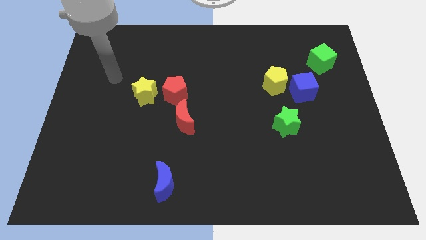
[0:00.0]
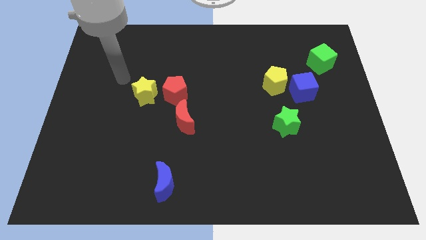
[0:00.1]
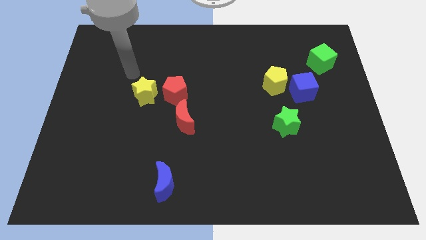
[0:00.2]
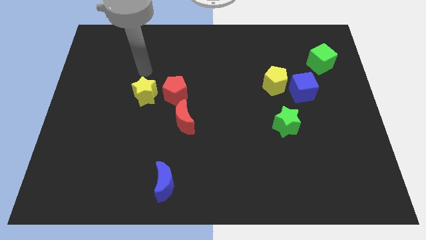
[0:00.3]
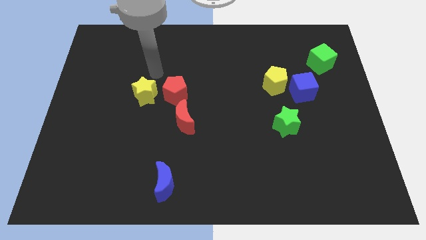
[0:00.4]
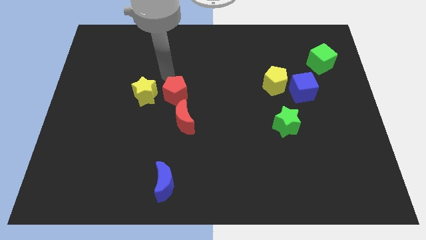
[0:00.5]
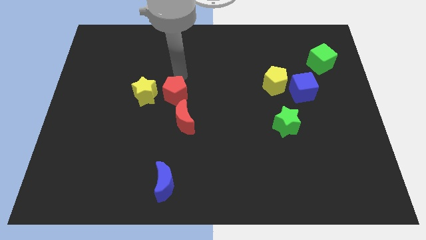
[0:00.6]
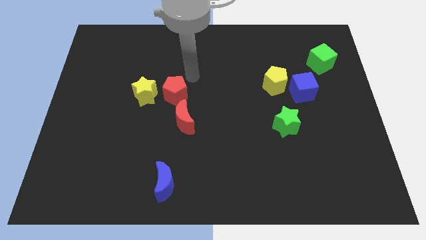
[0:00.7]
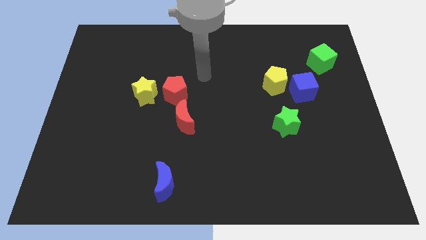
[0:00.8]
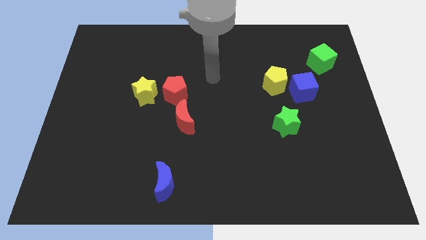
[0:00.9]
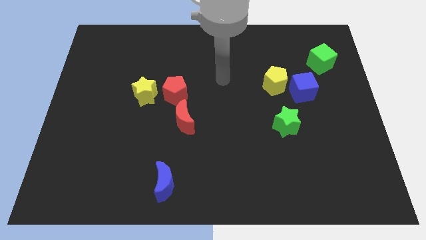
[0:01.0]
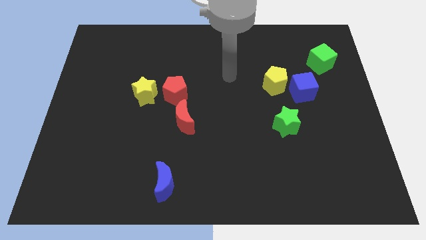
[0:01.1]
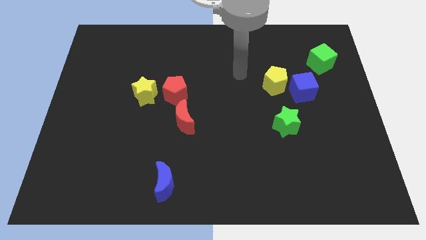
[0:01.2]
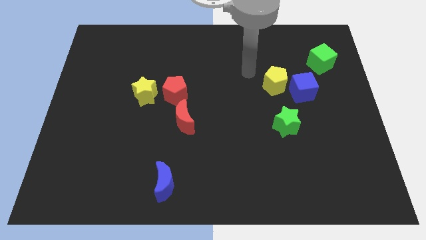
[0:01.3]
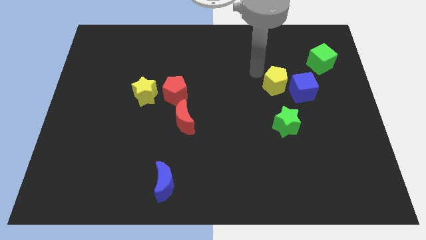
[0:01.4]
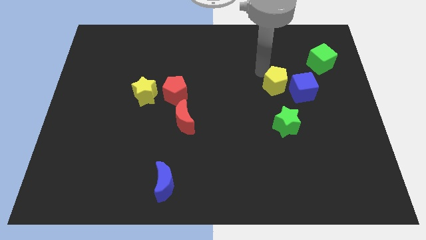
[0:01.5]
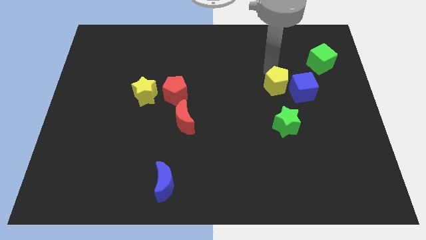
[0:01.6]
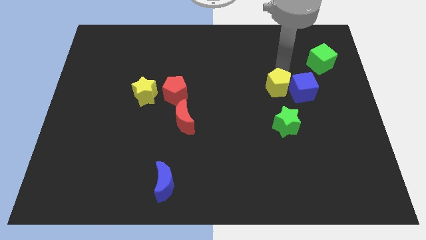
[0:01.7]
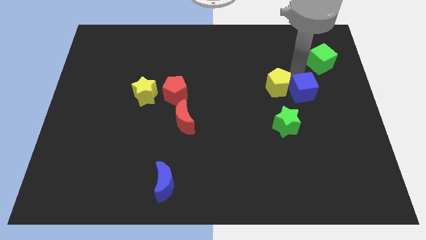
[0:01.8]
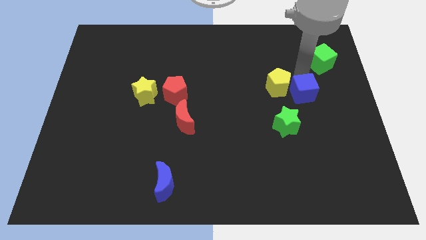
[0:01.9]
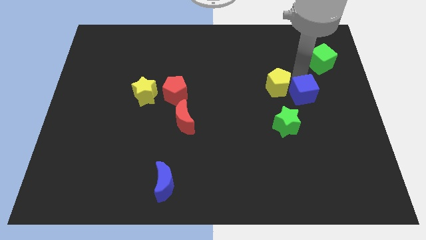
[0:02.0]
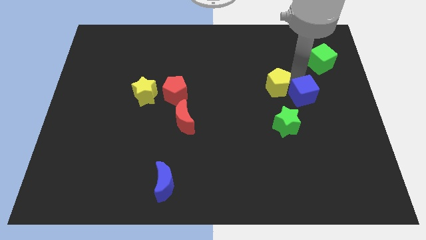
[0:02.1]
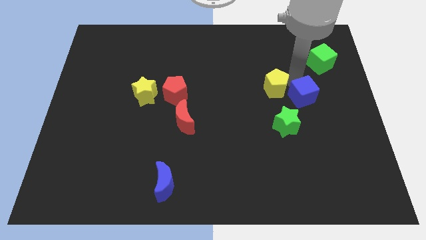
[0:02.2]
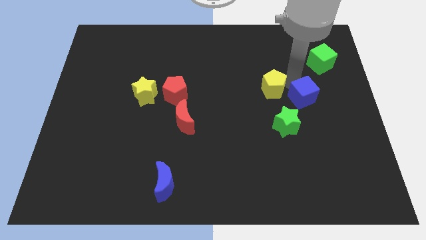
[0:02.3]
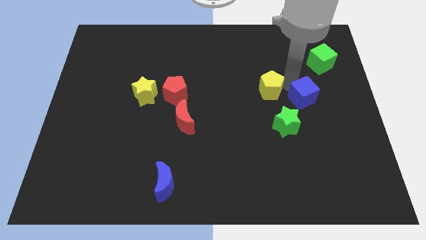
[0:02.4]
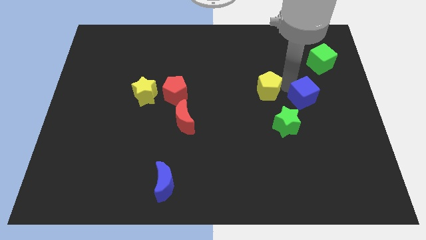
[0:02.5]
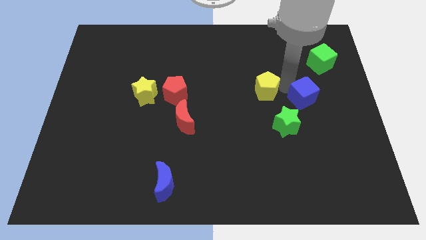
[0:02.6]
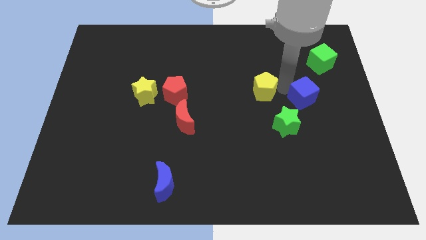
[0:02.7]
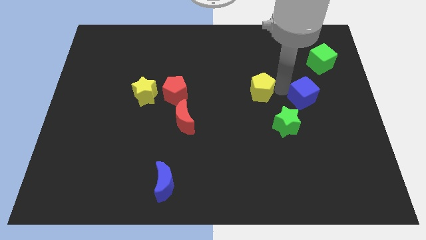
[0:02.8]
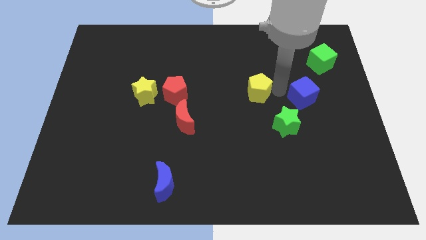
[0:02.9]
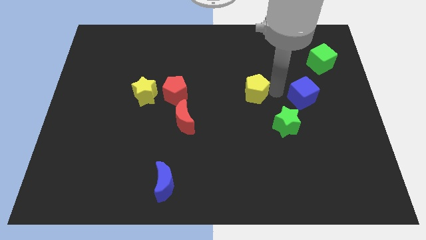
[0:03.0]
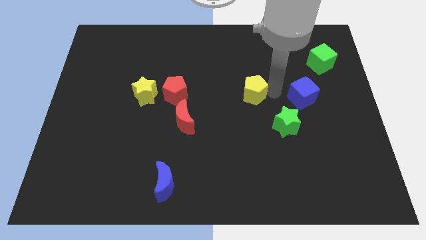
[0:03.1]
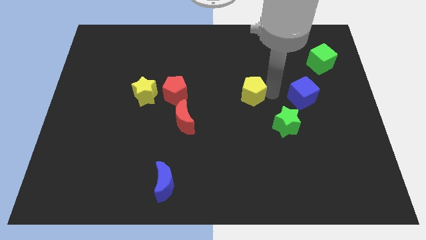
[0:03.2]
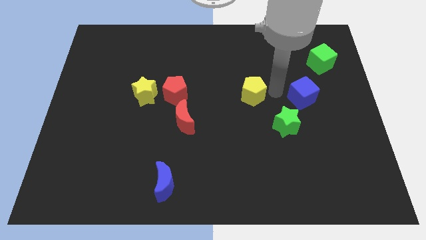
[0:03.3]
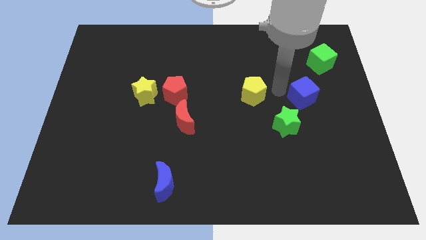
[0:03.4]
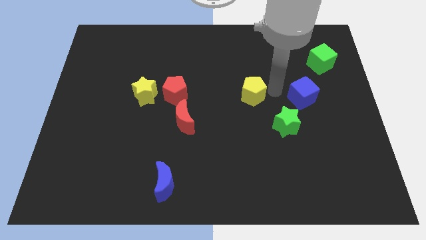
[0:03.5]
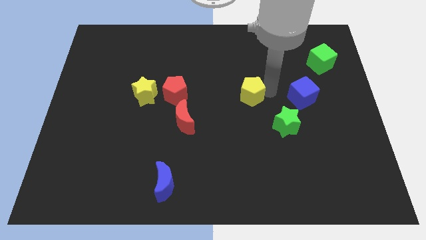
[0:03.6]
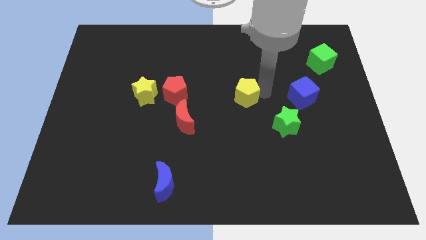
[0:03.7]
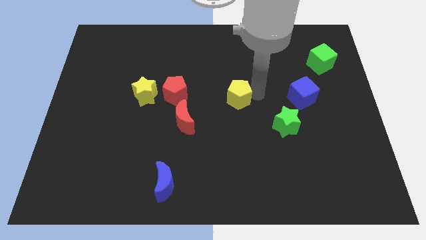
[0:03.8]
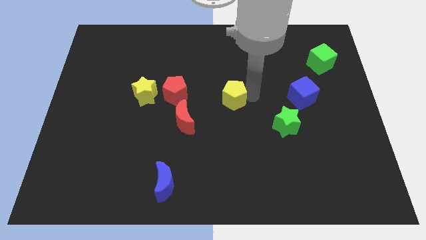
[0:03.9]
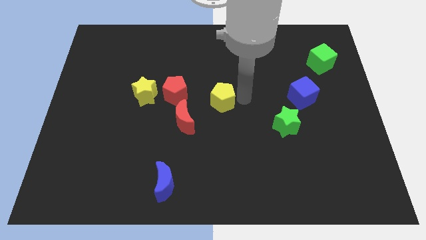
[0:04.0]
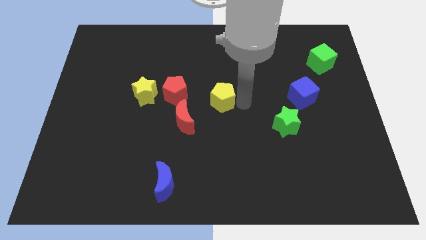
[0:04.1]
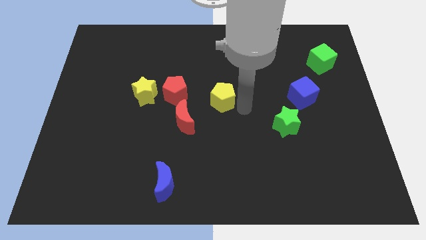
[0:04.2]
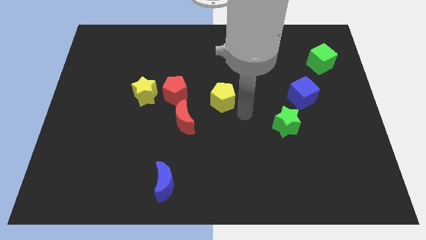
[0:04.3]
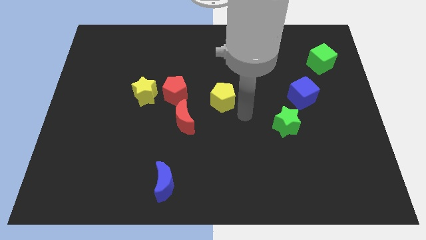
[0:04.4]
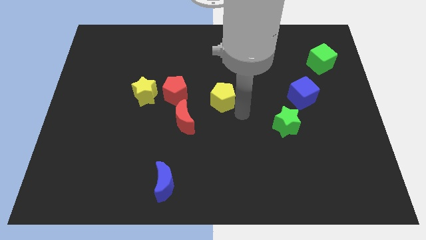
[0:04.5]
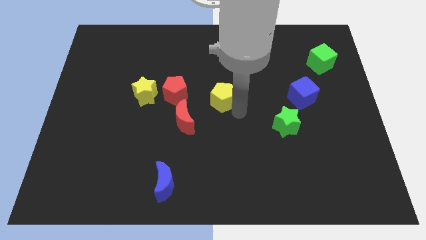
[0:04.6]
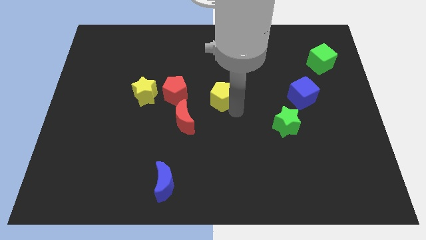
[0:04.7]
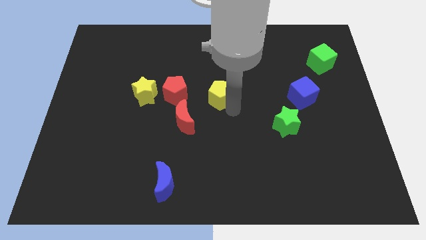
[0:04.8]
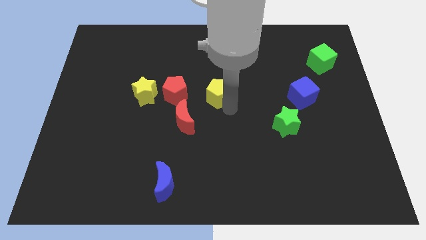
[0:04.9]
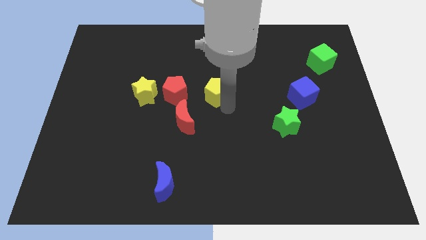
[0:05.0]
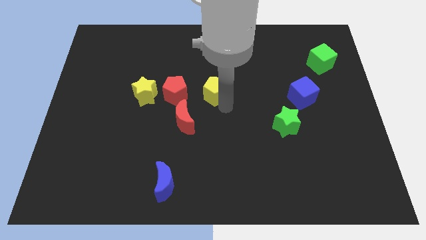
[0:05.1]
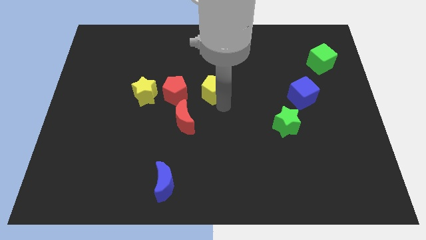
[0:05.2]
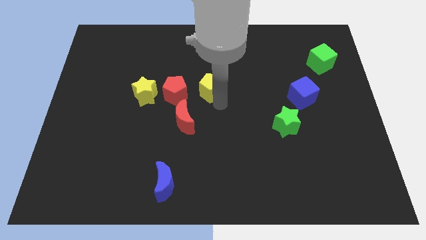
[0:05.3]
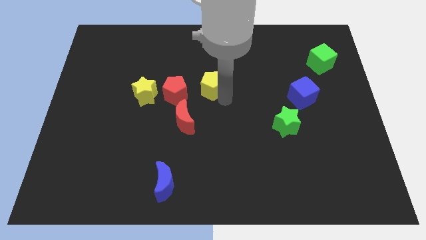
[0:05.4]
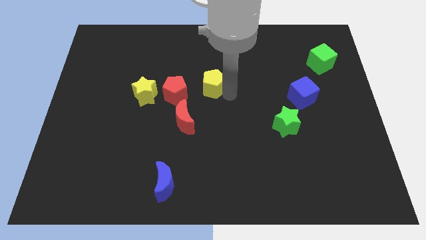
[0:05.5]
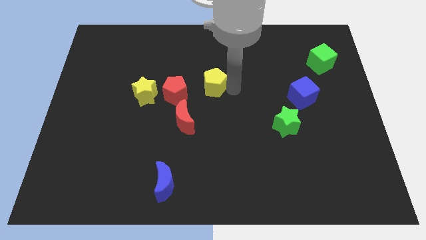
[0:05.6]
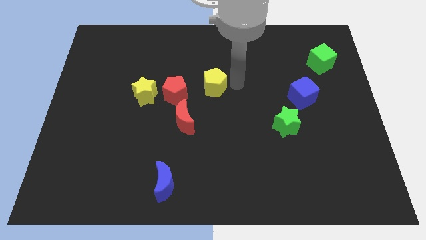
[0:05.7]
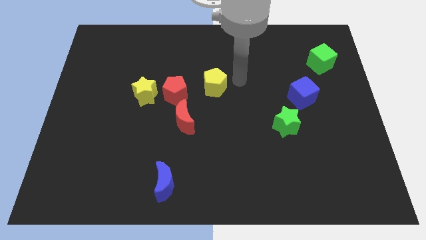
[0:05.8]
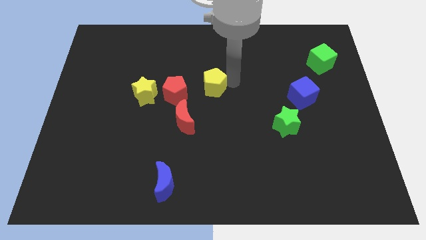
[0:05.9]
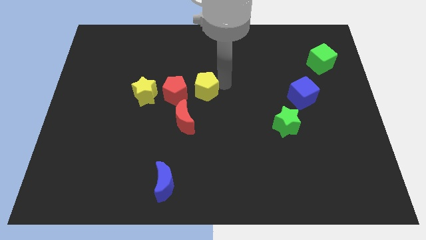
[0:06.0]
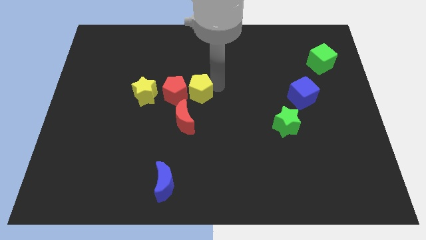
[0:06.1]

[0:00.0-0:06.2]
put the yellow pentagon towards the red pentagon

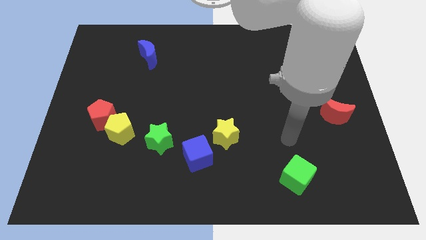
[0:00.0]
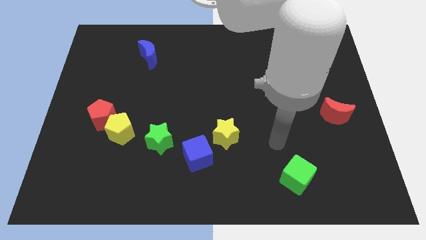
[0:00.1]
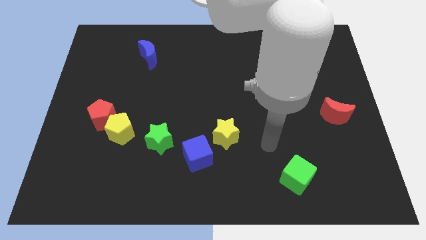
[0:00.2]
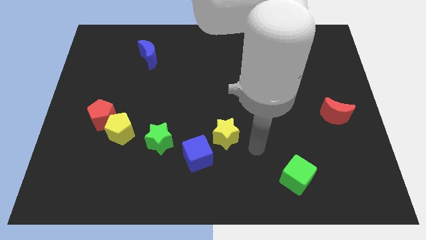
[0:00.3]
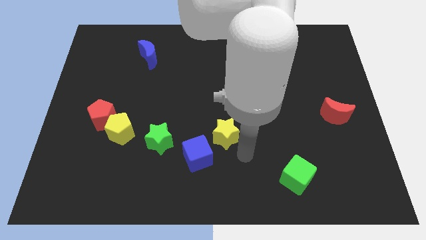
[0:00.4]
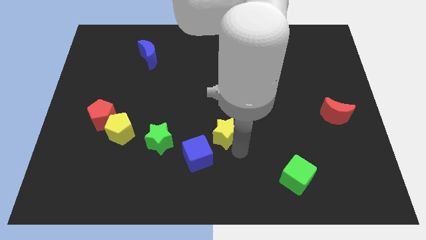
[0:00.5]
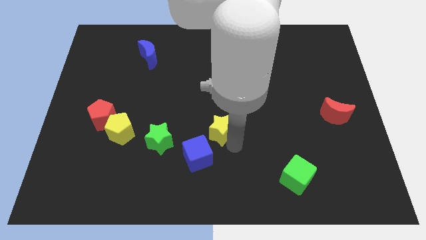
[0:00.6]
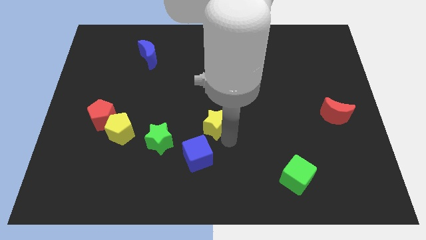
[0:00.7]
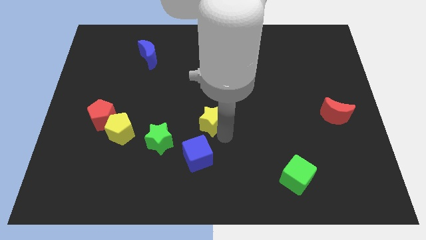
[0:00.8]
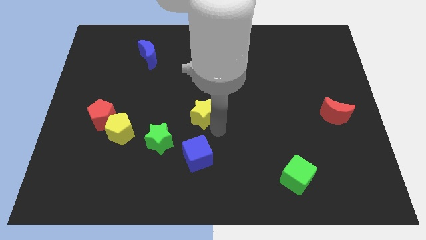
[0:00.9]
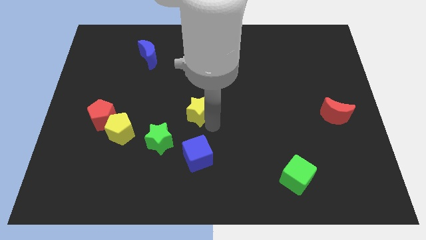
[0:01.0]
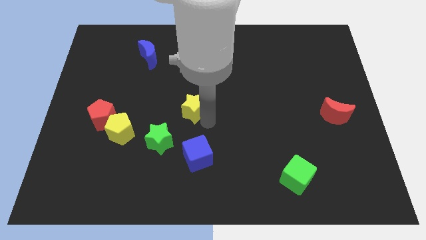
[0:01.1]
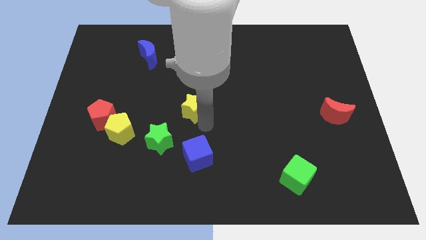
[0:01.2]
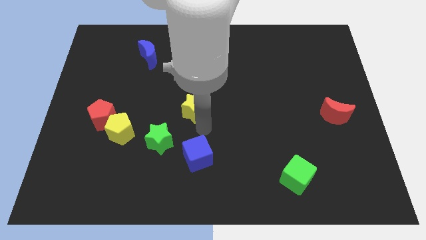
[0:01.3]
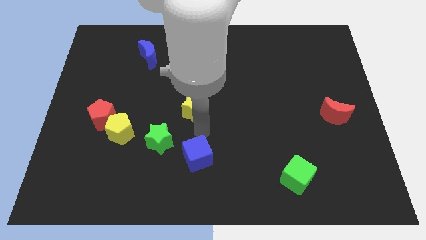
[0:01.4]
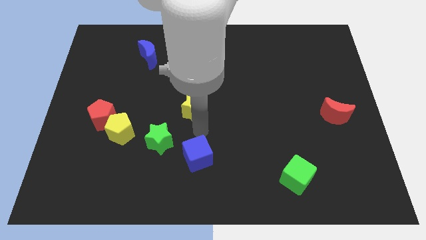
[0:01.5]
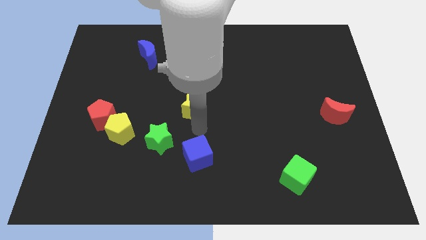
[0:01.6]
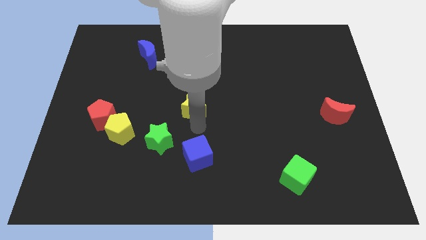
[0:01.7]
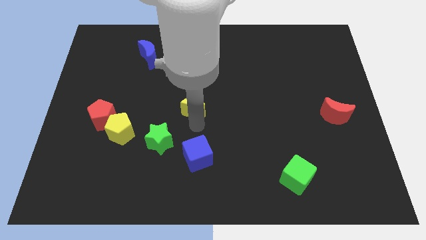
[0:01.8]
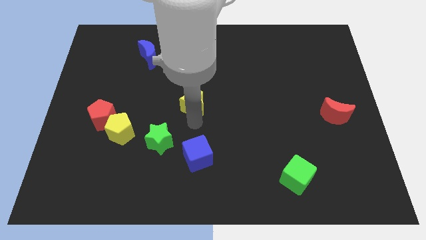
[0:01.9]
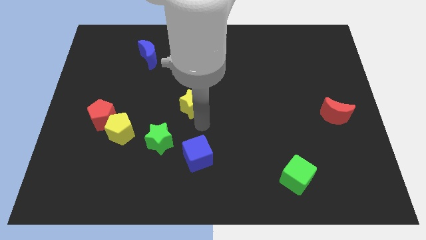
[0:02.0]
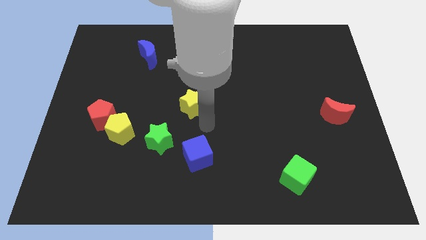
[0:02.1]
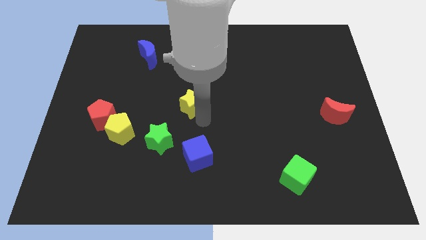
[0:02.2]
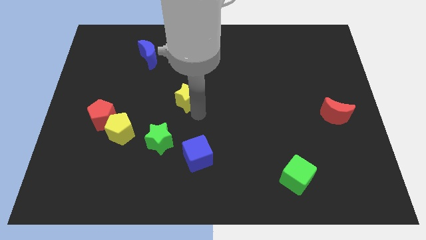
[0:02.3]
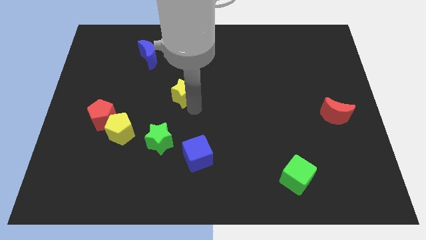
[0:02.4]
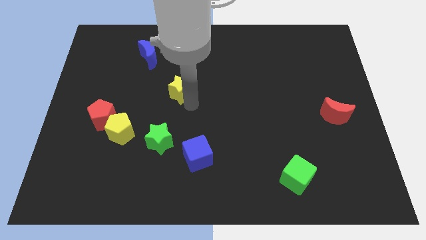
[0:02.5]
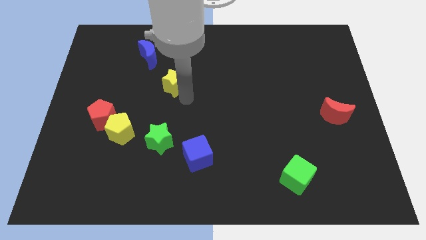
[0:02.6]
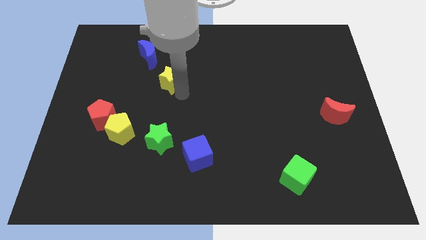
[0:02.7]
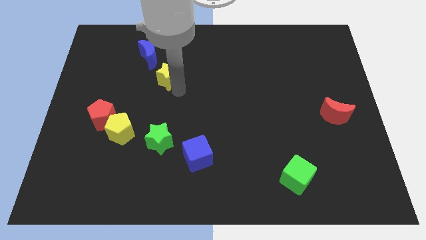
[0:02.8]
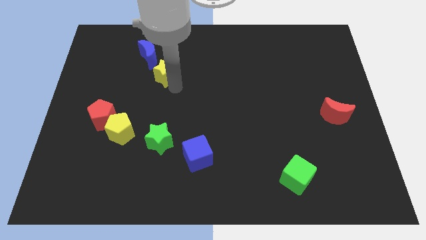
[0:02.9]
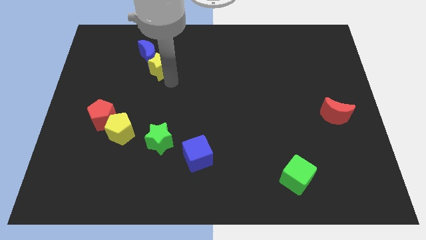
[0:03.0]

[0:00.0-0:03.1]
put the yellow star to the blue moon
